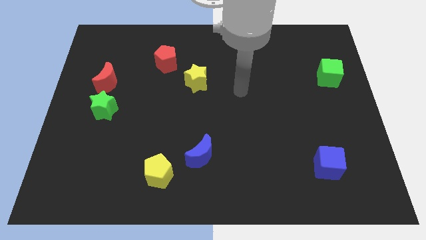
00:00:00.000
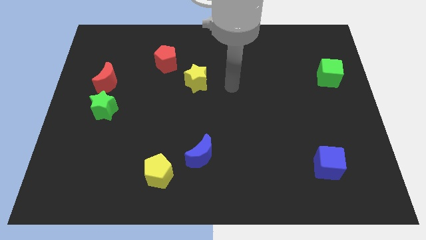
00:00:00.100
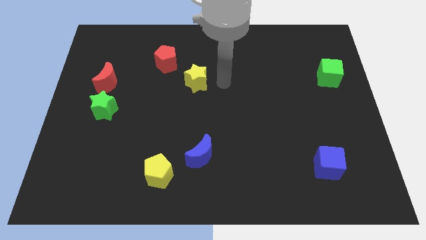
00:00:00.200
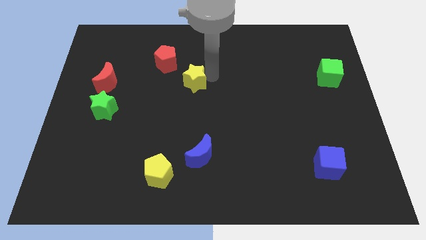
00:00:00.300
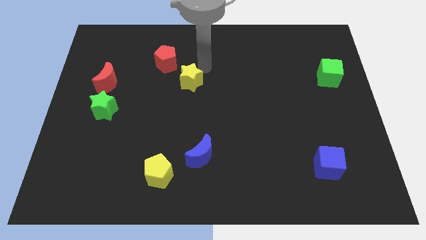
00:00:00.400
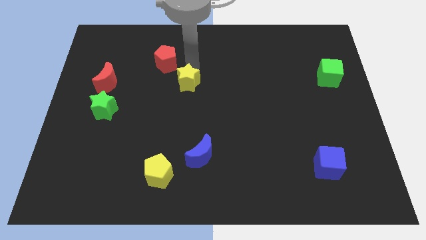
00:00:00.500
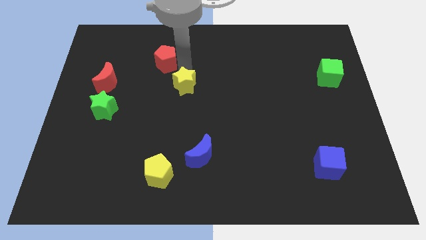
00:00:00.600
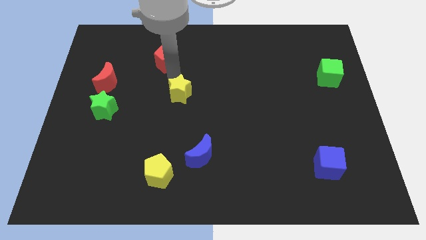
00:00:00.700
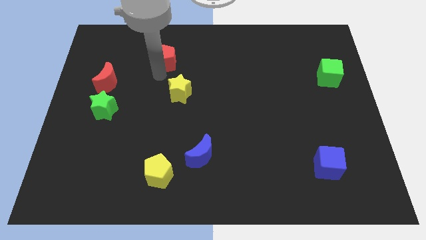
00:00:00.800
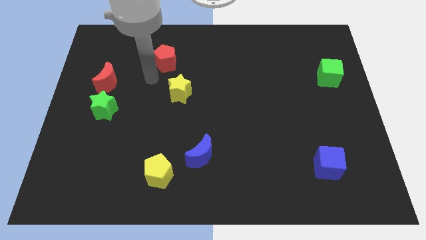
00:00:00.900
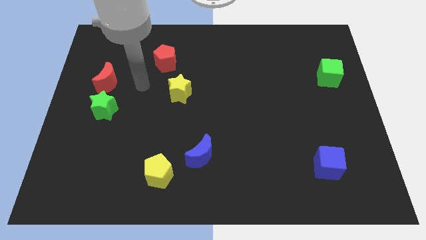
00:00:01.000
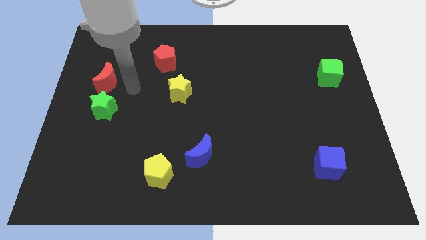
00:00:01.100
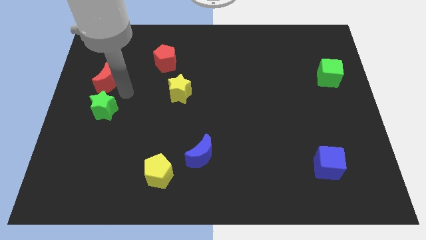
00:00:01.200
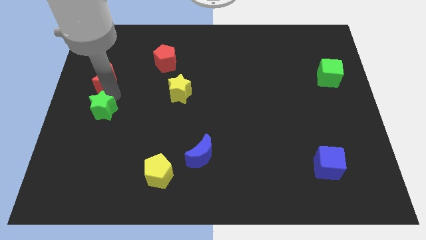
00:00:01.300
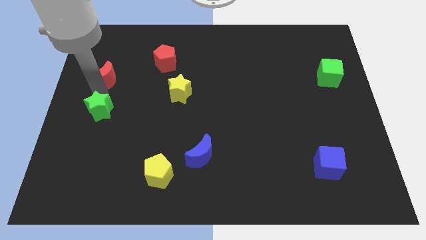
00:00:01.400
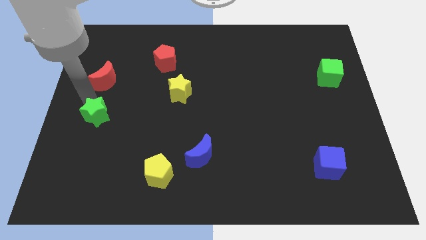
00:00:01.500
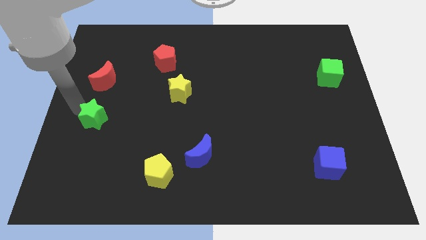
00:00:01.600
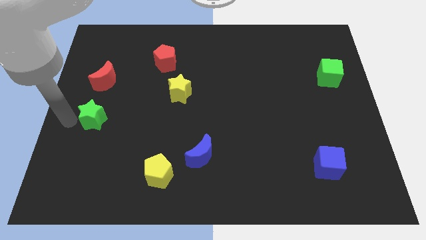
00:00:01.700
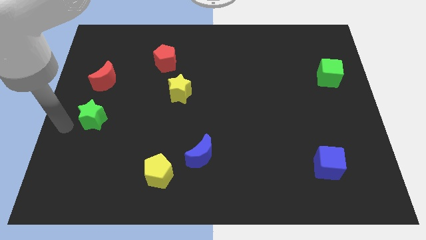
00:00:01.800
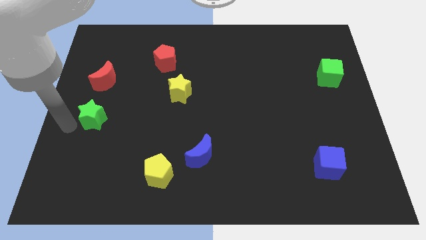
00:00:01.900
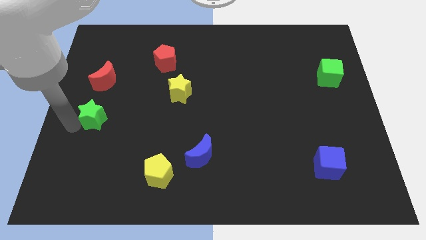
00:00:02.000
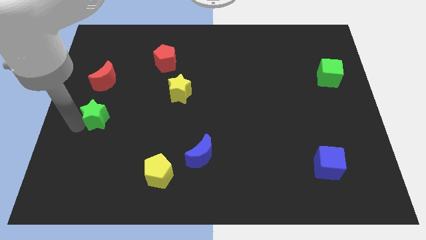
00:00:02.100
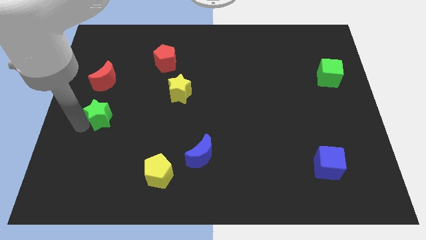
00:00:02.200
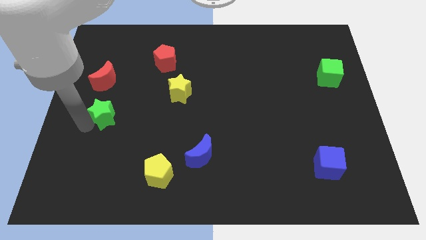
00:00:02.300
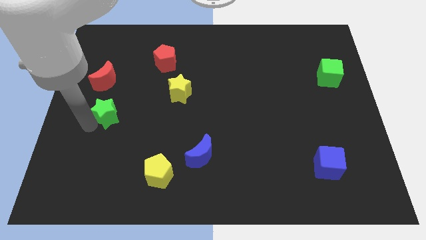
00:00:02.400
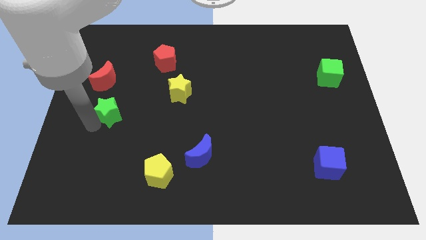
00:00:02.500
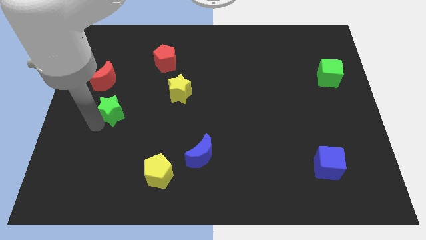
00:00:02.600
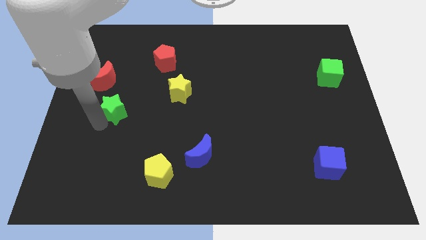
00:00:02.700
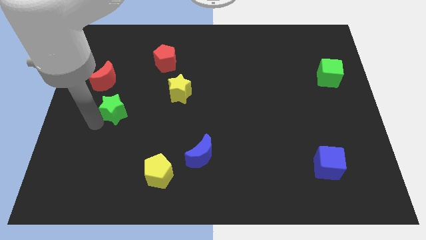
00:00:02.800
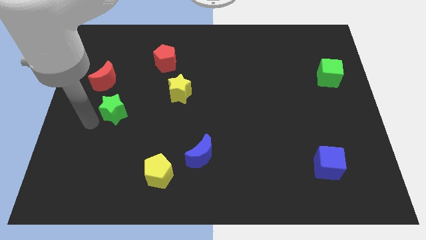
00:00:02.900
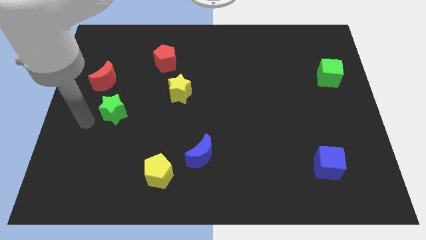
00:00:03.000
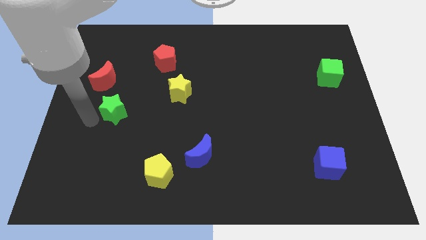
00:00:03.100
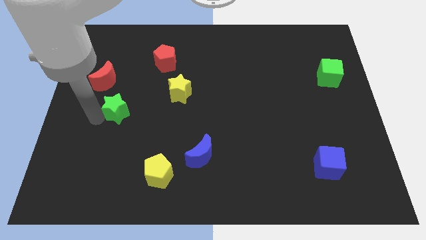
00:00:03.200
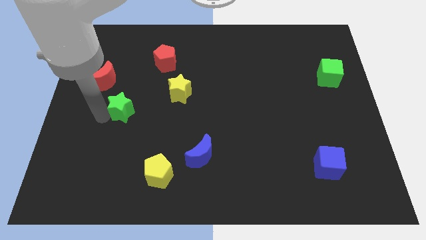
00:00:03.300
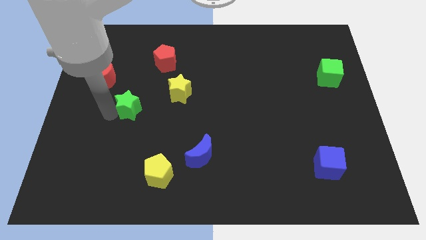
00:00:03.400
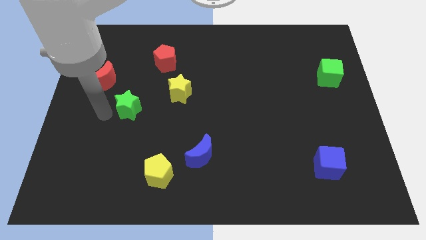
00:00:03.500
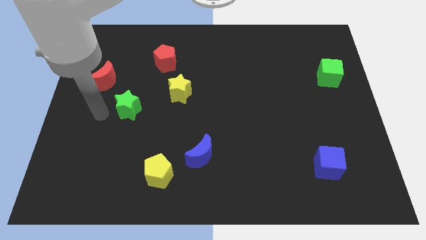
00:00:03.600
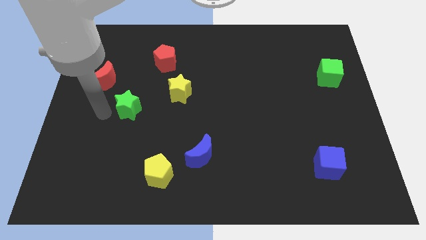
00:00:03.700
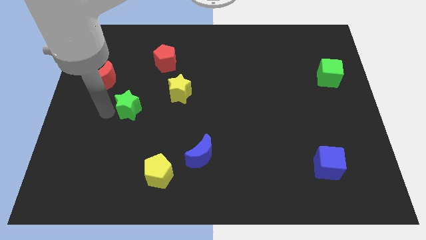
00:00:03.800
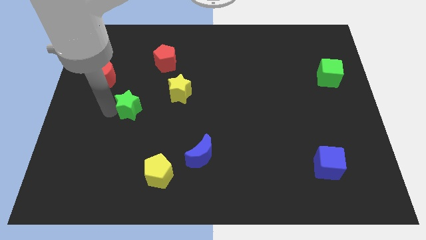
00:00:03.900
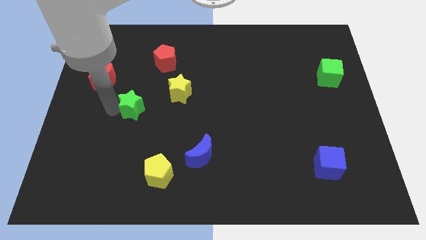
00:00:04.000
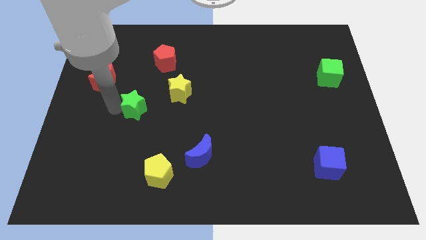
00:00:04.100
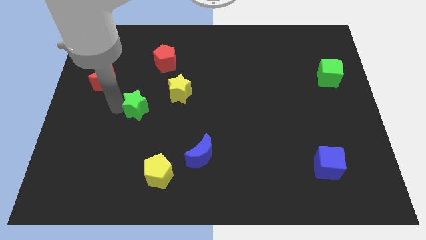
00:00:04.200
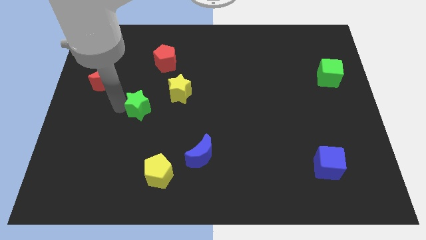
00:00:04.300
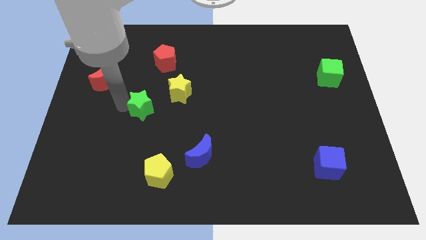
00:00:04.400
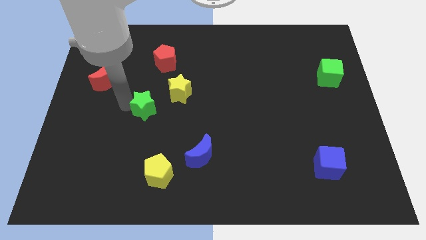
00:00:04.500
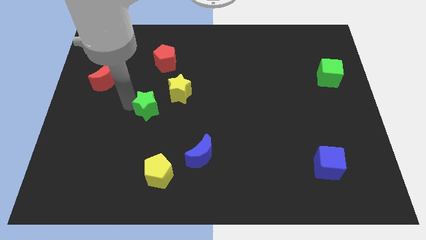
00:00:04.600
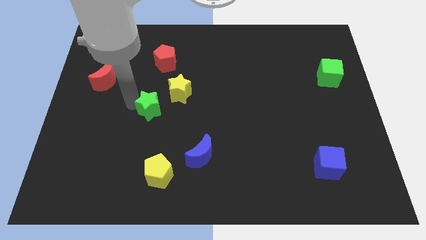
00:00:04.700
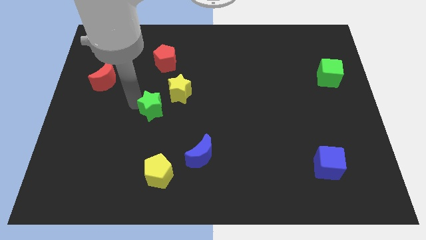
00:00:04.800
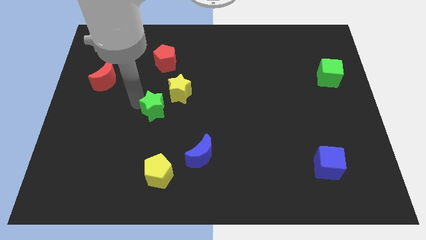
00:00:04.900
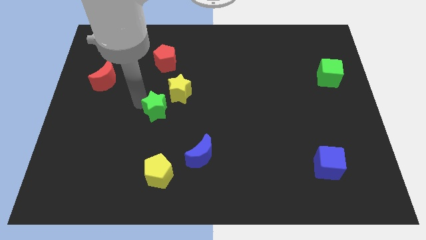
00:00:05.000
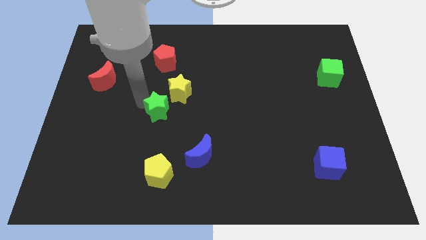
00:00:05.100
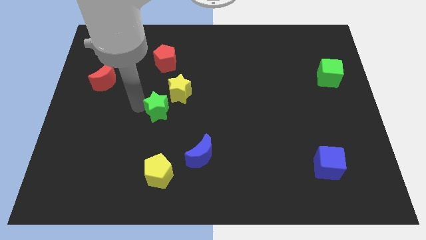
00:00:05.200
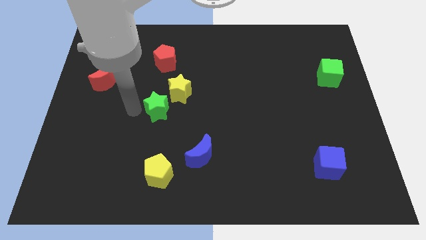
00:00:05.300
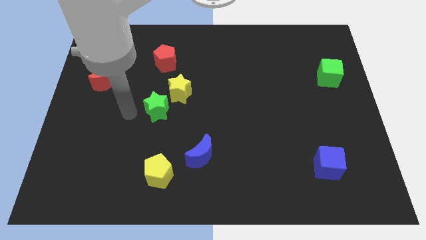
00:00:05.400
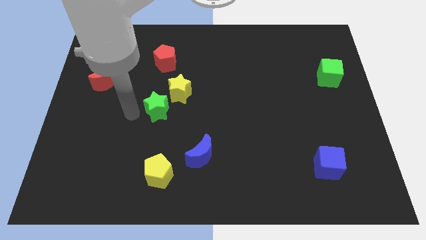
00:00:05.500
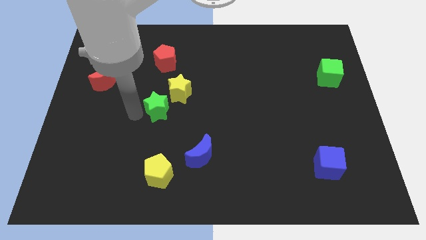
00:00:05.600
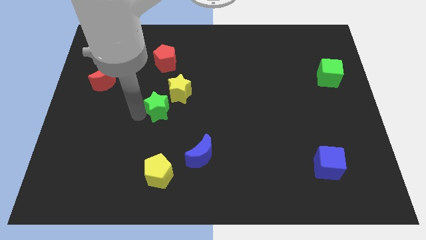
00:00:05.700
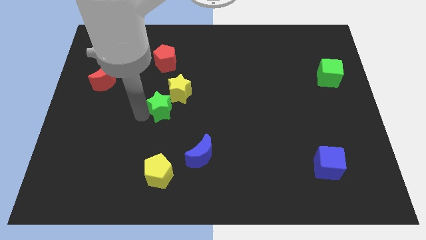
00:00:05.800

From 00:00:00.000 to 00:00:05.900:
put the green star to the middle of the board

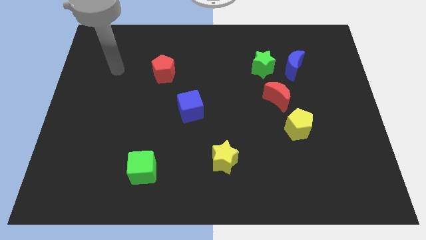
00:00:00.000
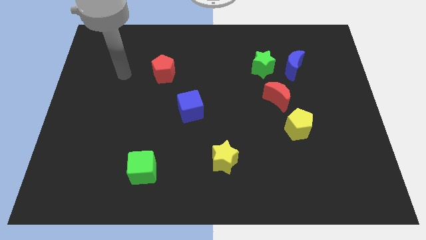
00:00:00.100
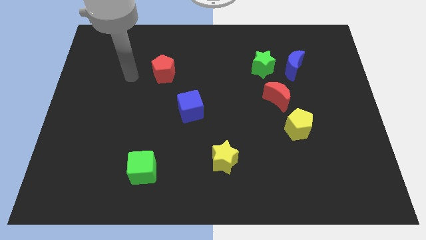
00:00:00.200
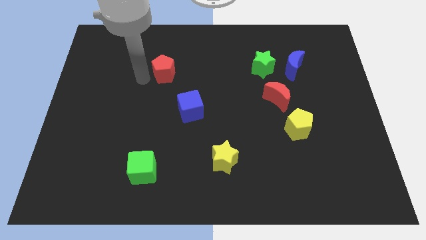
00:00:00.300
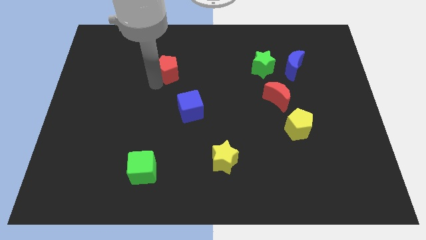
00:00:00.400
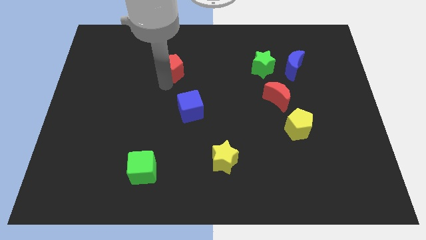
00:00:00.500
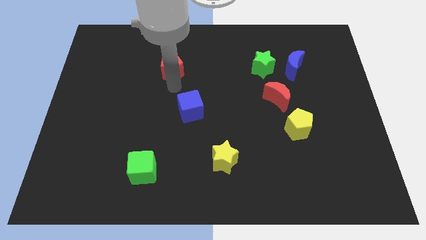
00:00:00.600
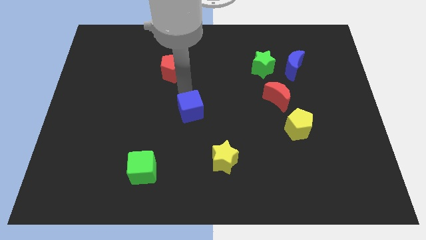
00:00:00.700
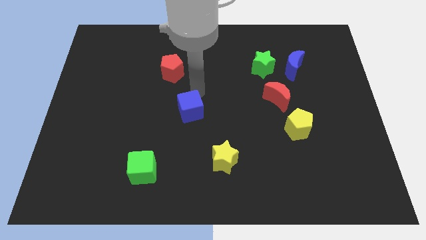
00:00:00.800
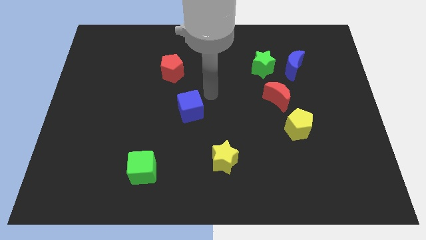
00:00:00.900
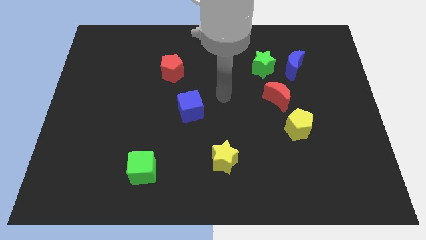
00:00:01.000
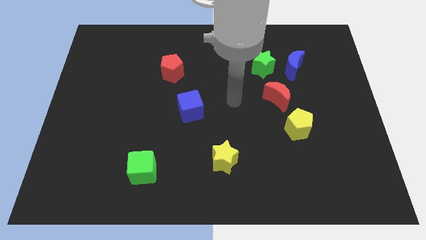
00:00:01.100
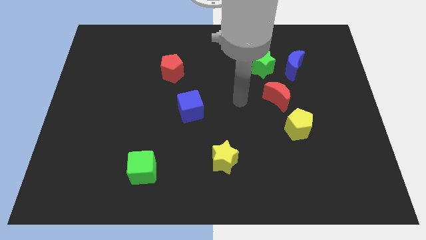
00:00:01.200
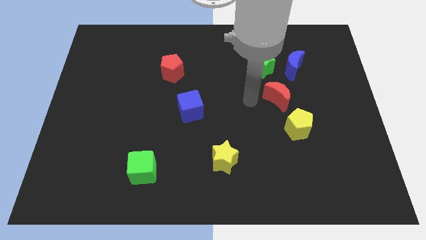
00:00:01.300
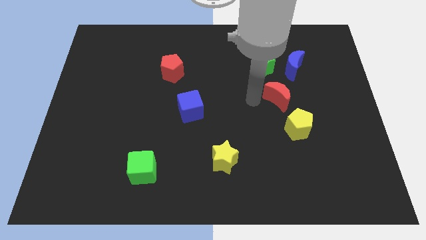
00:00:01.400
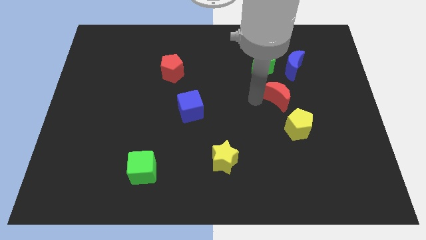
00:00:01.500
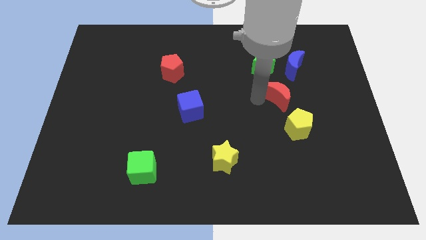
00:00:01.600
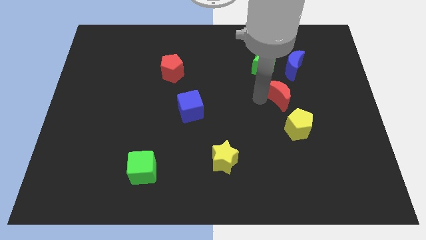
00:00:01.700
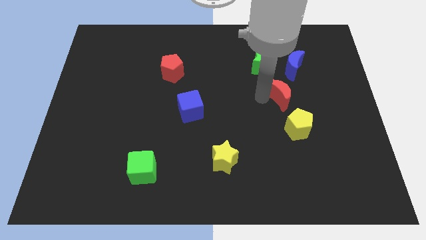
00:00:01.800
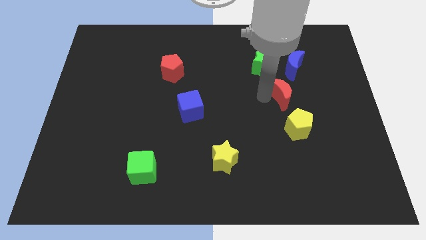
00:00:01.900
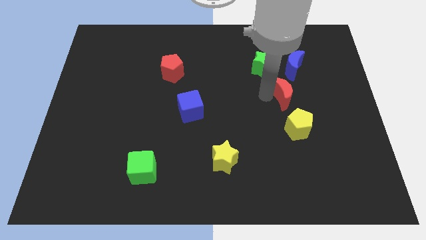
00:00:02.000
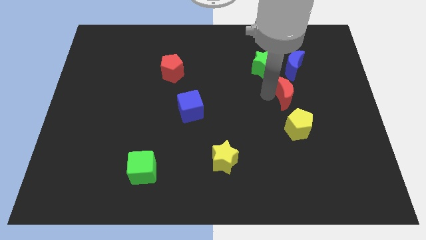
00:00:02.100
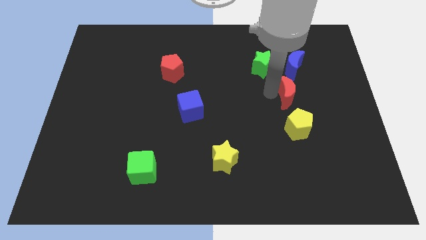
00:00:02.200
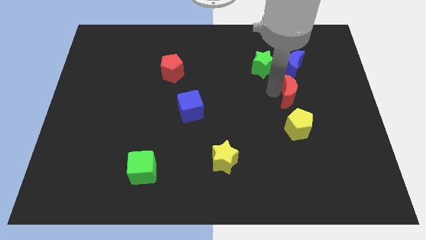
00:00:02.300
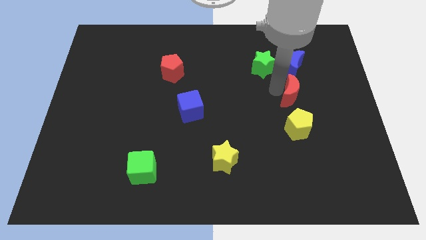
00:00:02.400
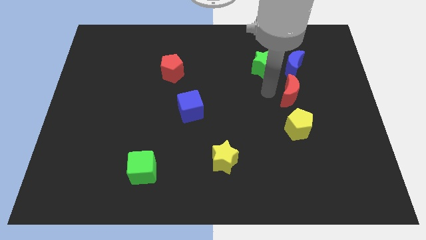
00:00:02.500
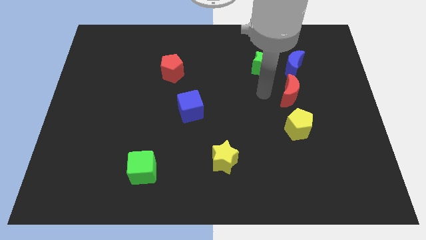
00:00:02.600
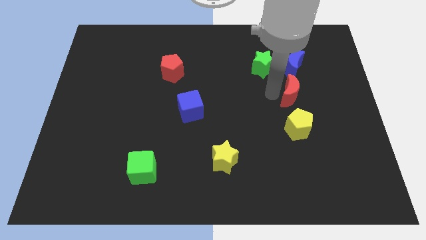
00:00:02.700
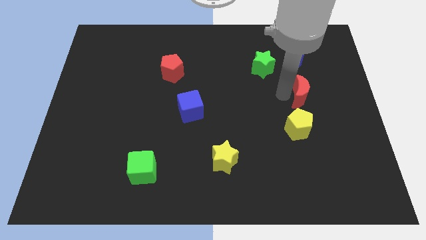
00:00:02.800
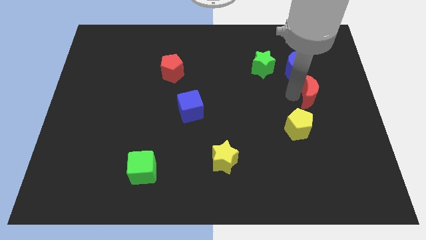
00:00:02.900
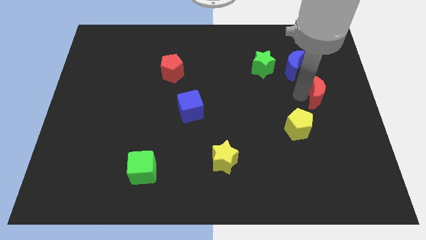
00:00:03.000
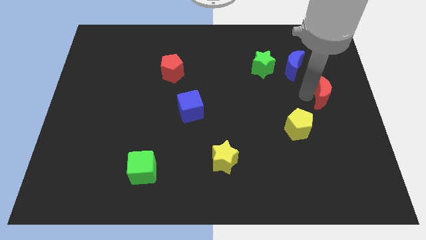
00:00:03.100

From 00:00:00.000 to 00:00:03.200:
slide the red moon to the center right
